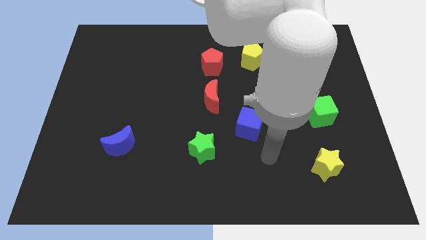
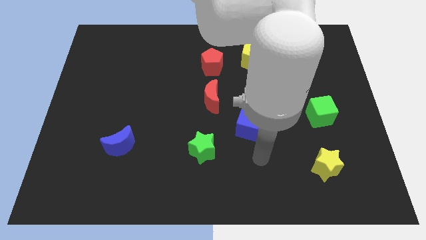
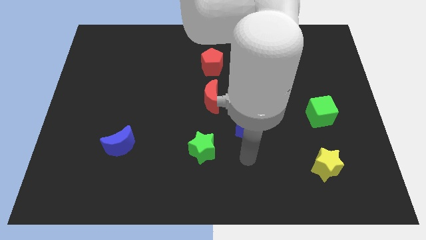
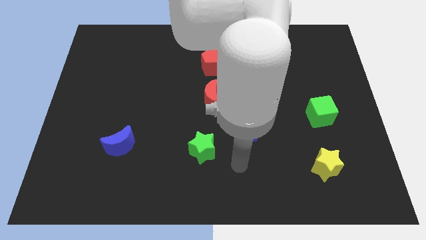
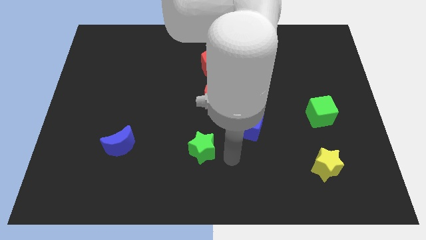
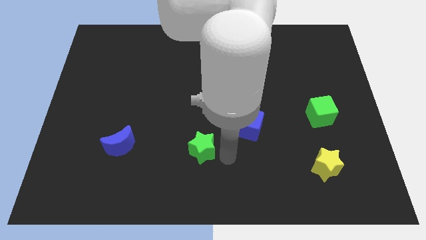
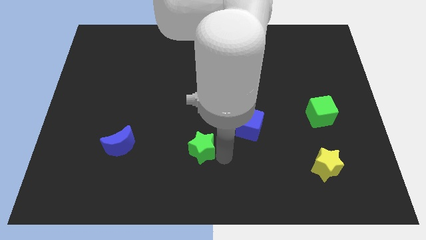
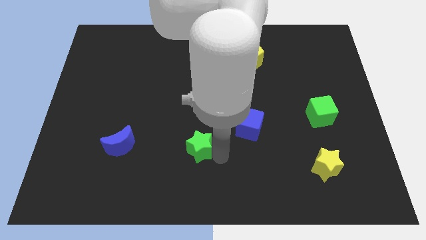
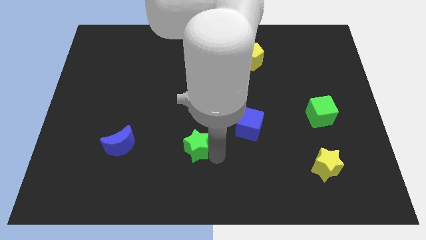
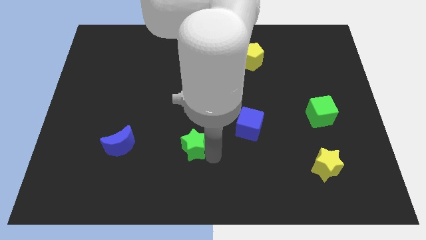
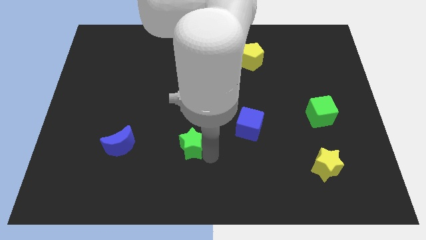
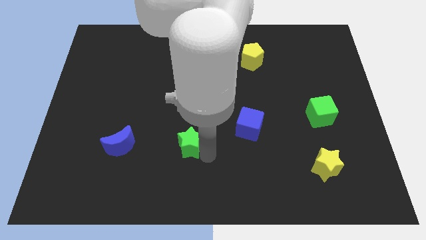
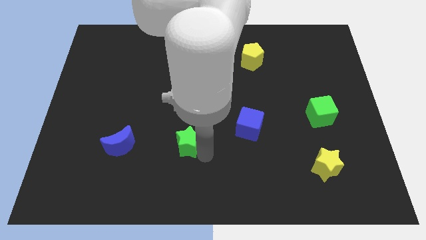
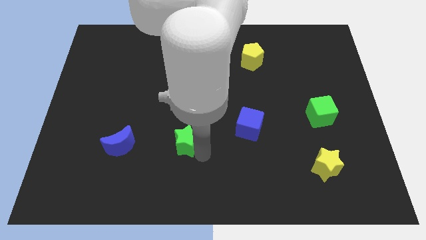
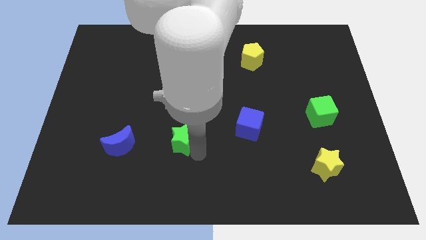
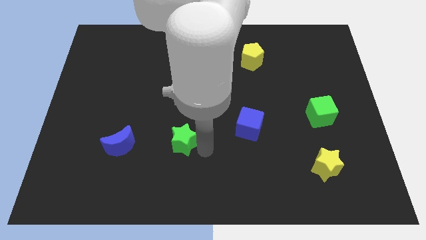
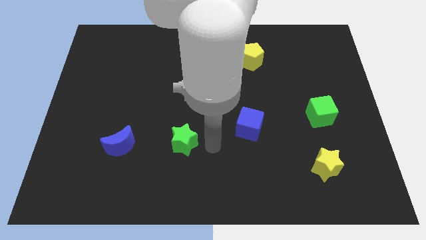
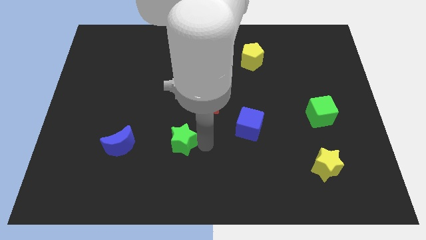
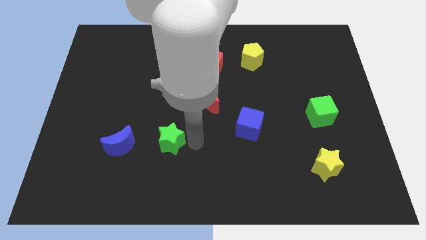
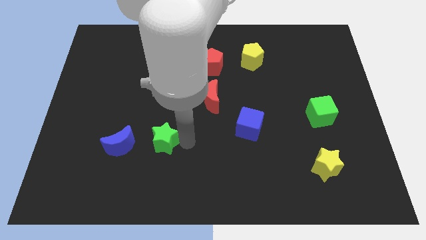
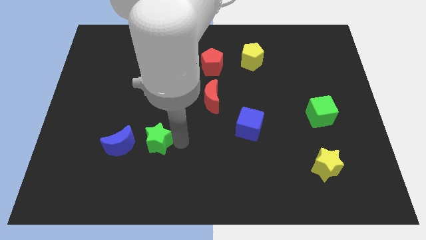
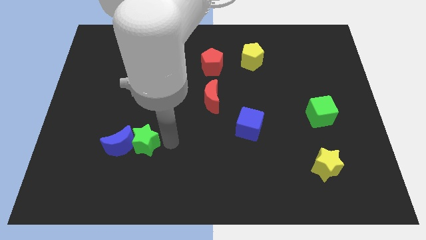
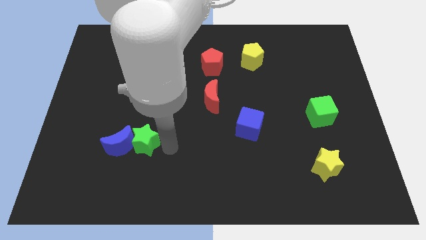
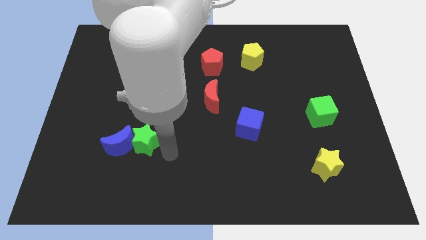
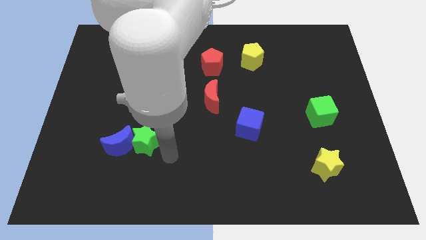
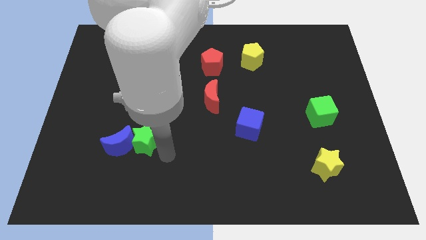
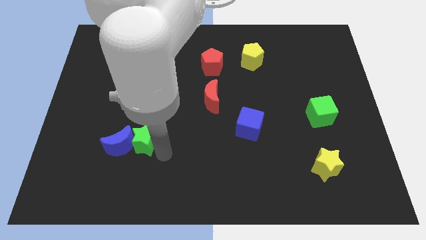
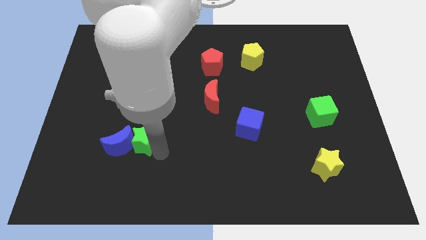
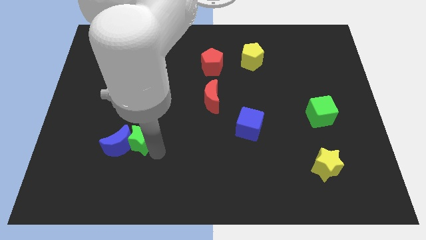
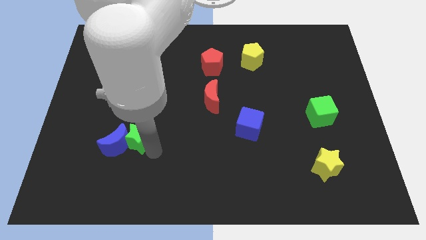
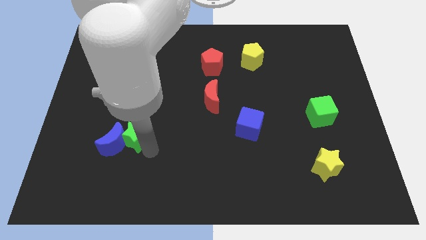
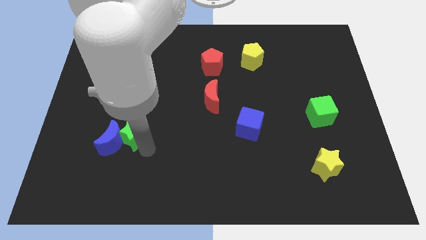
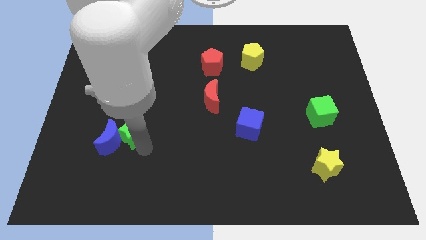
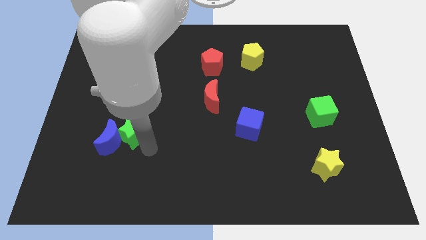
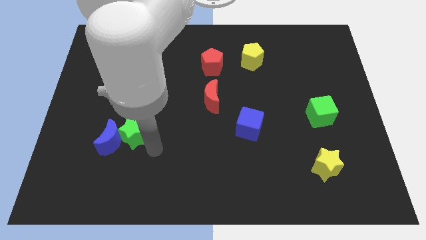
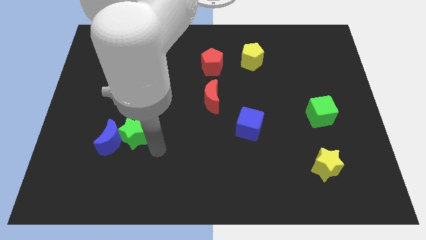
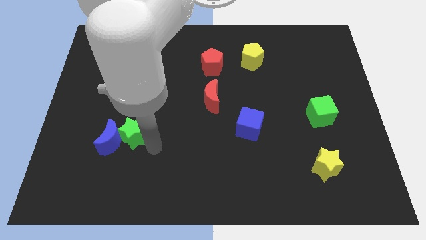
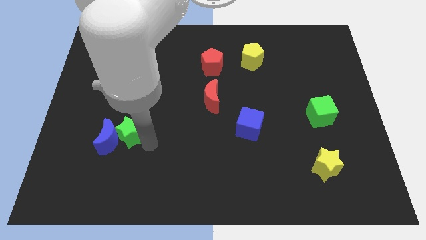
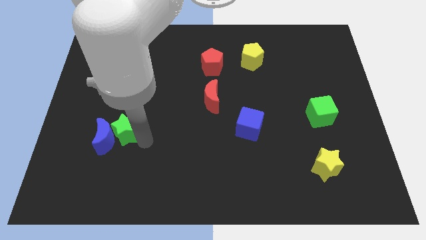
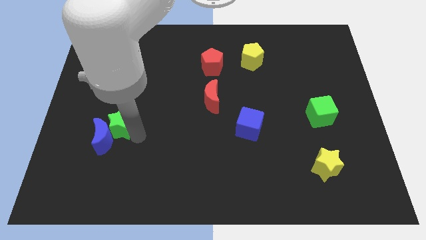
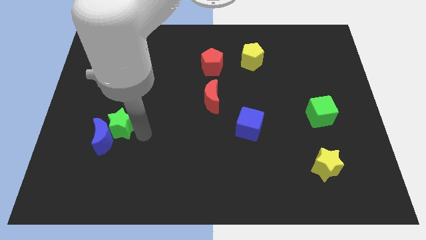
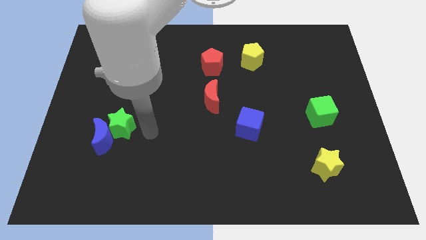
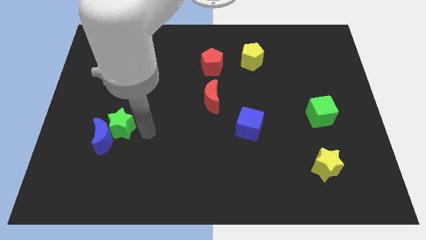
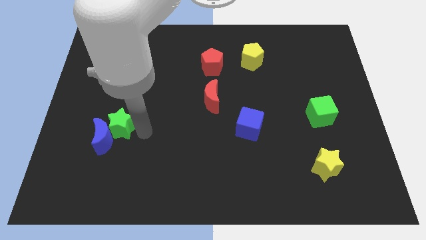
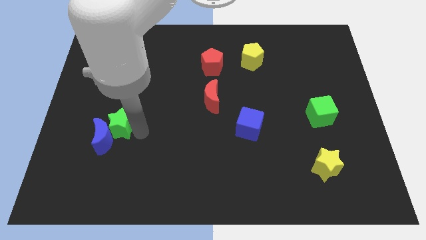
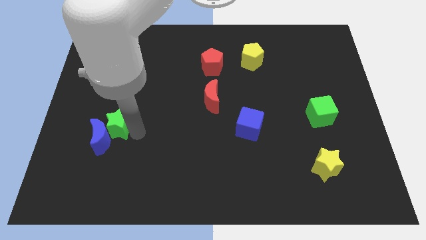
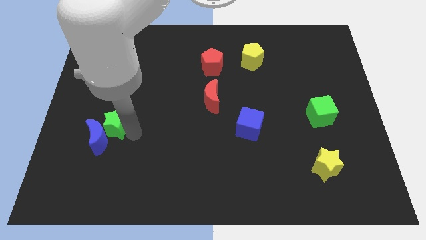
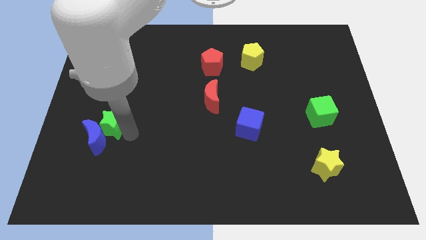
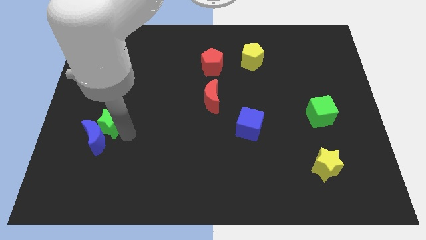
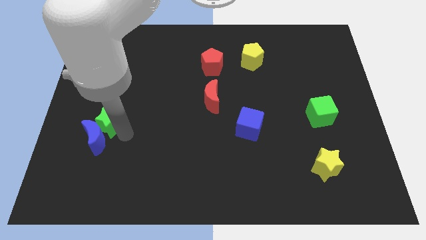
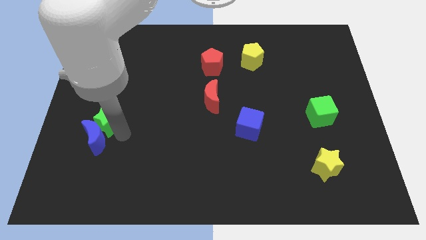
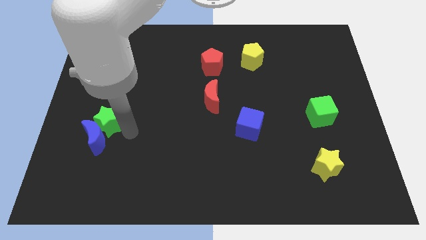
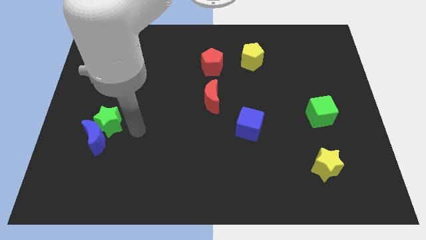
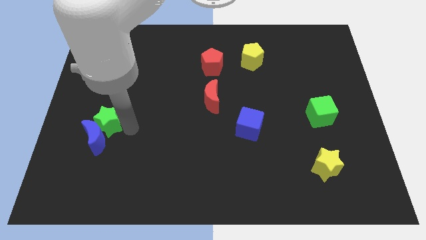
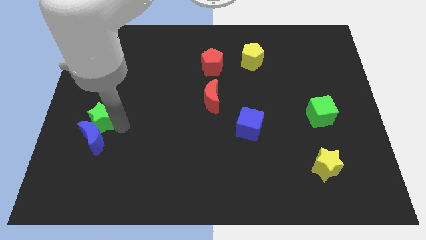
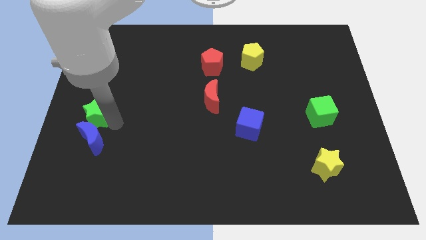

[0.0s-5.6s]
push the green star to the center left

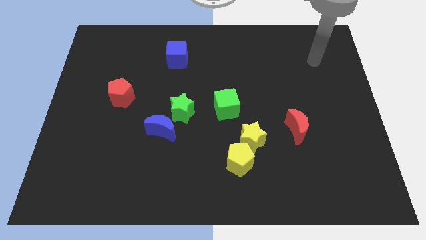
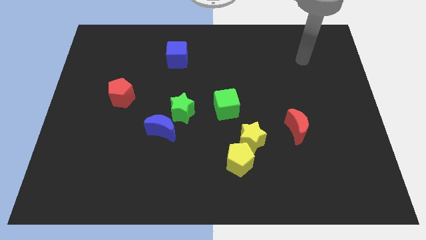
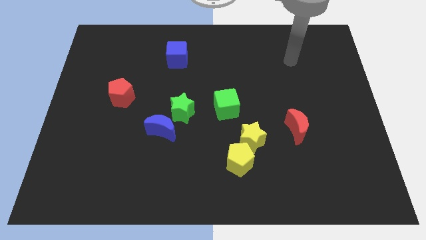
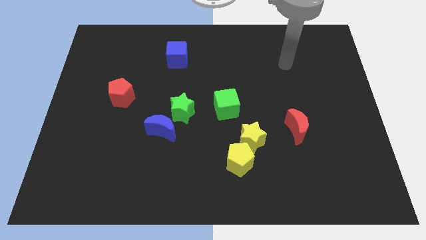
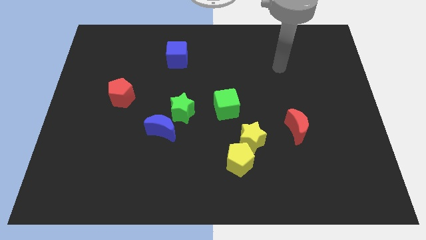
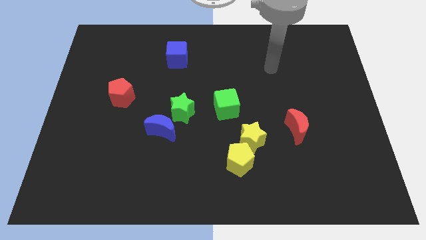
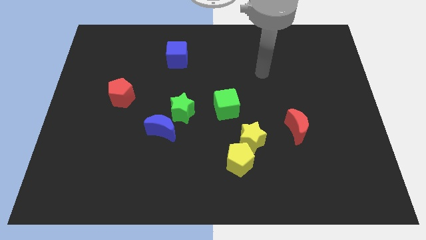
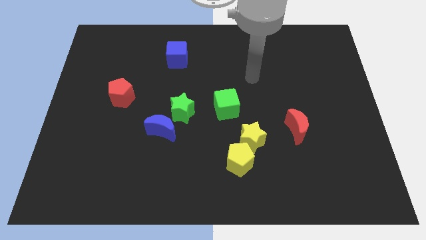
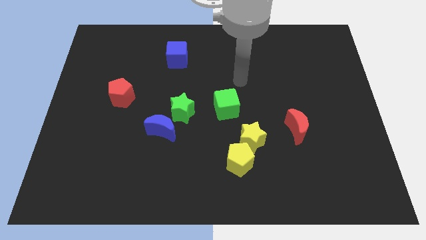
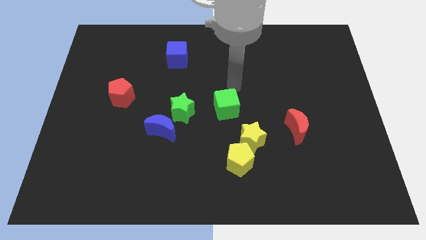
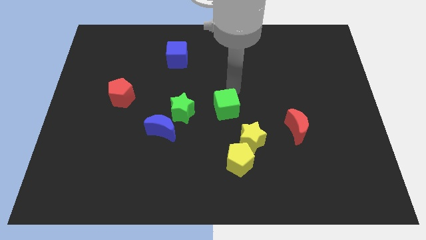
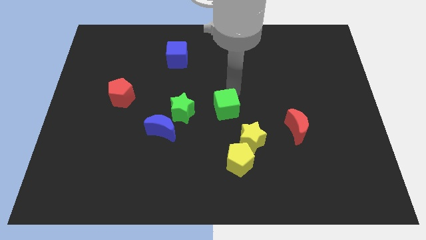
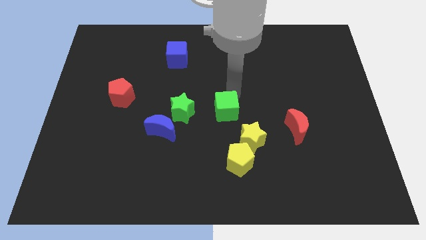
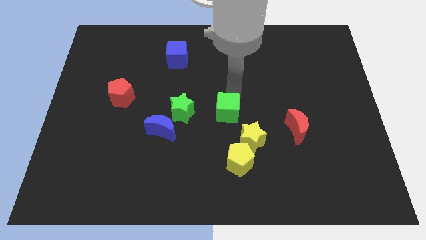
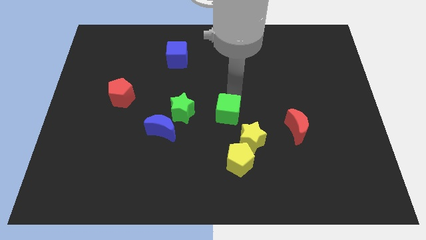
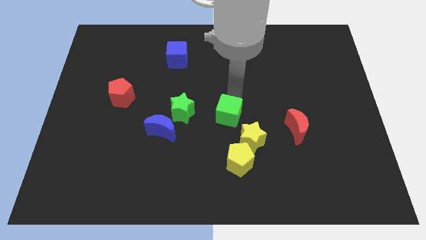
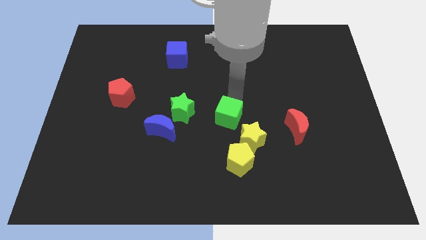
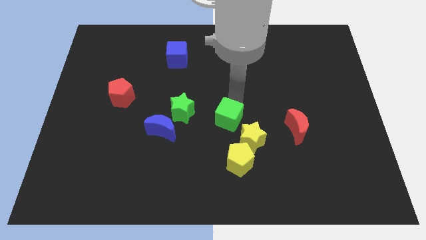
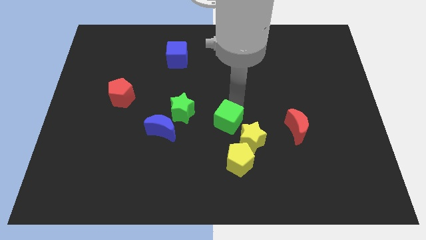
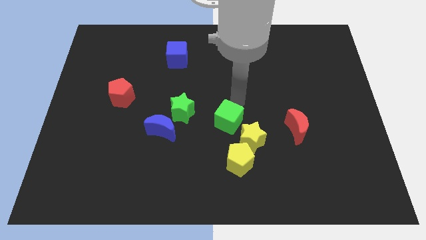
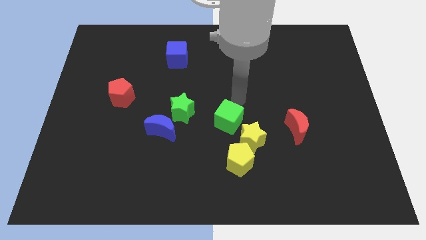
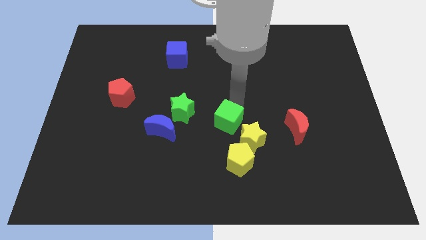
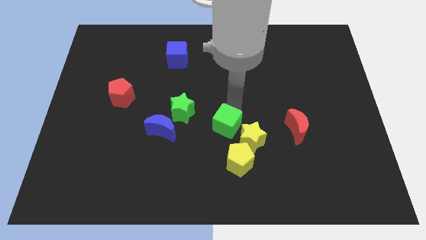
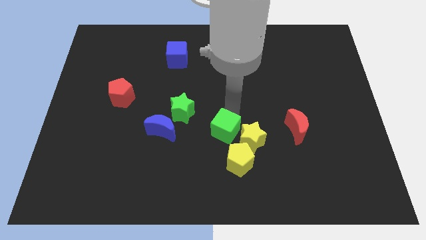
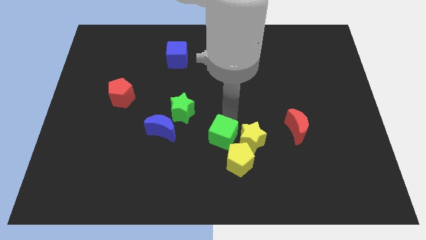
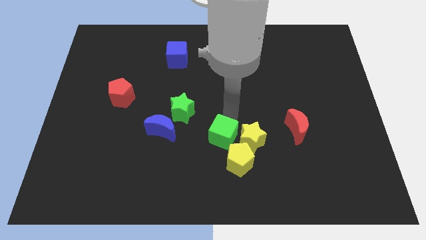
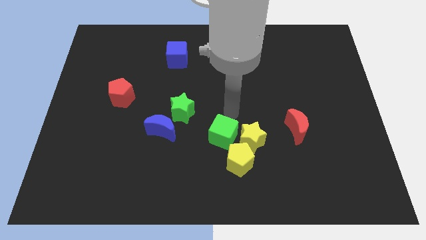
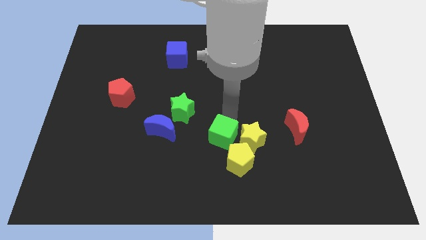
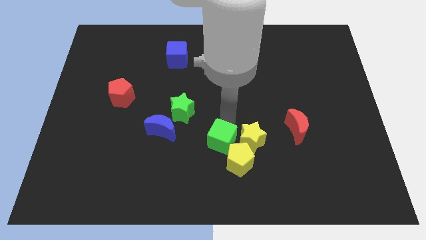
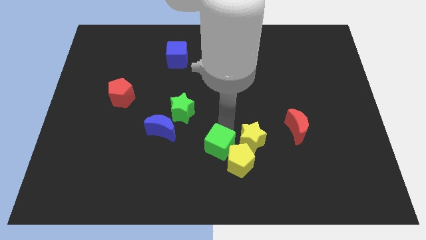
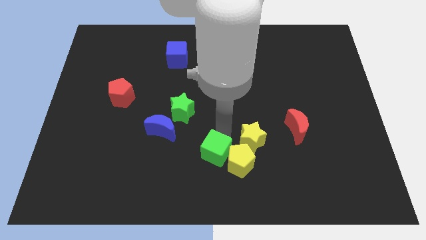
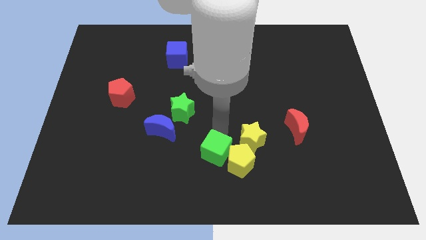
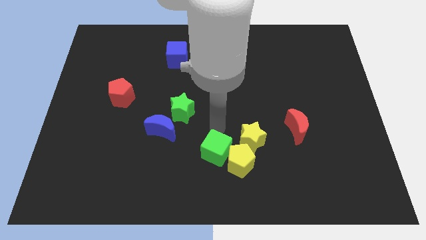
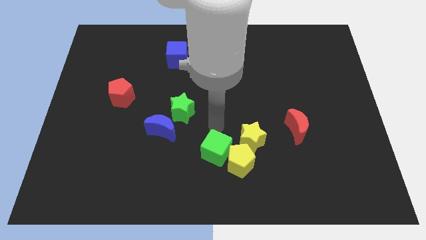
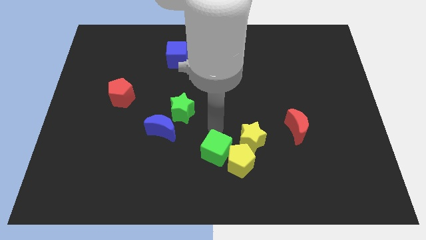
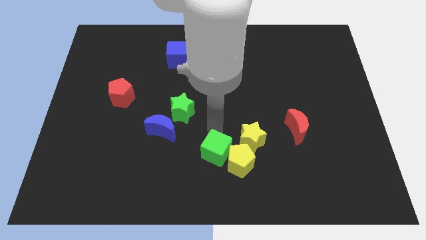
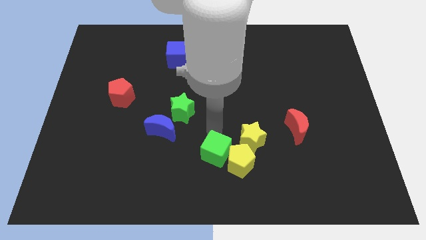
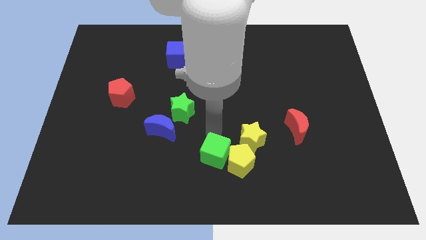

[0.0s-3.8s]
slide the green cube to the bottom
